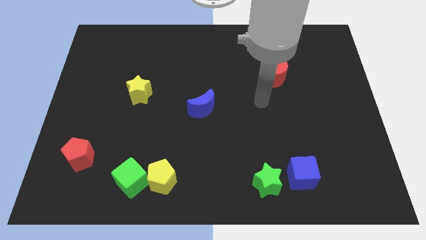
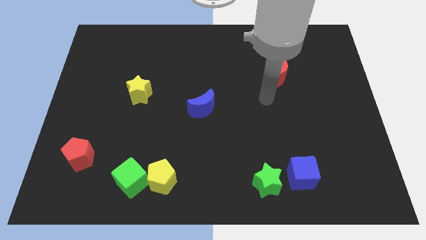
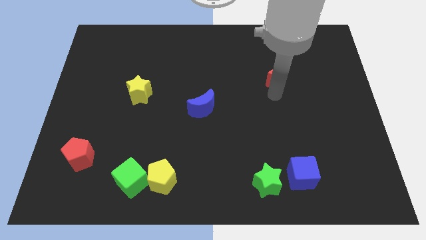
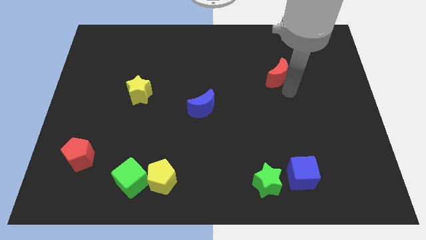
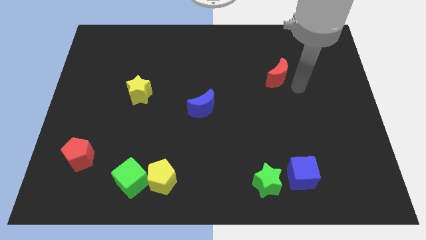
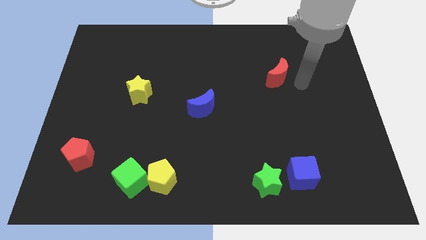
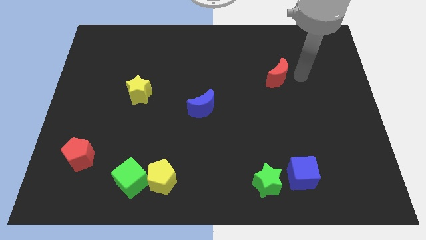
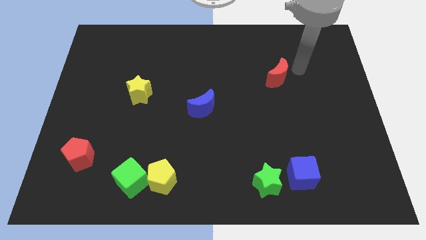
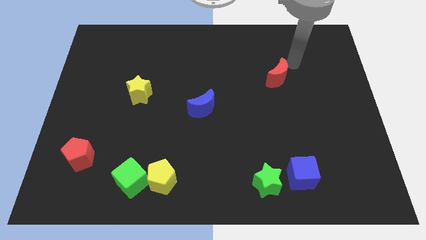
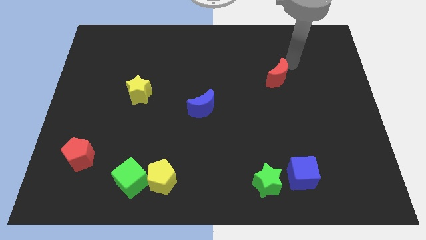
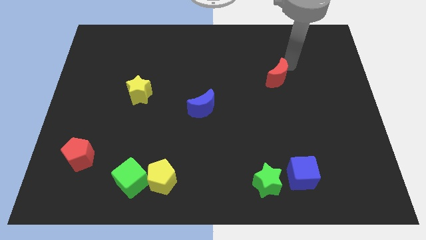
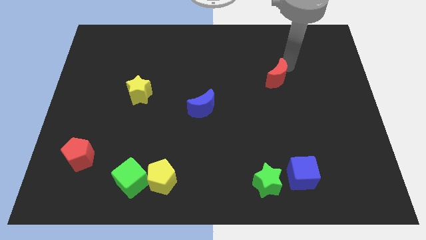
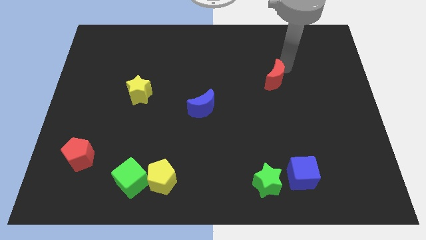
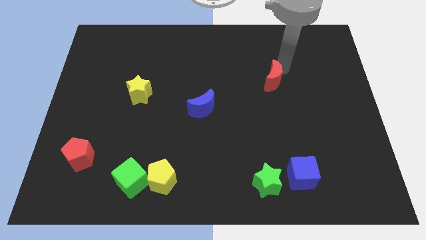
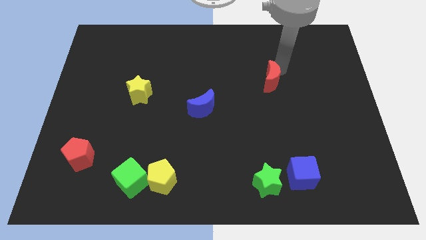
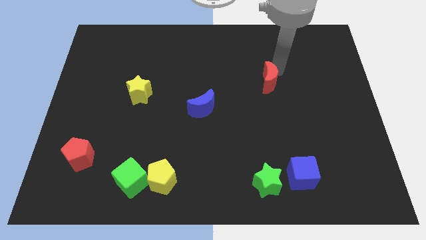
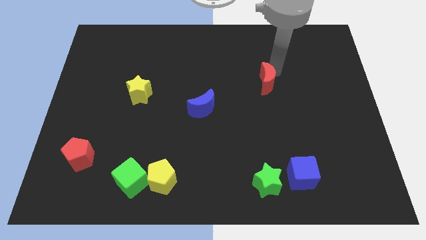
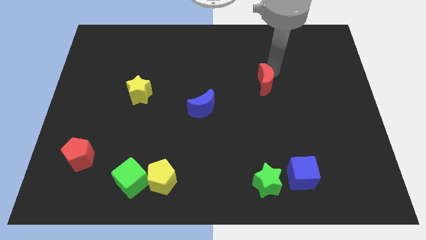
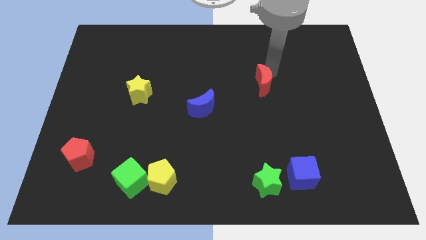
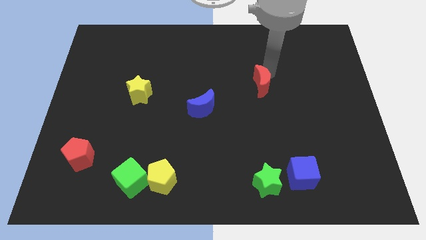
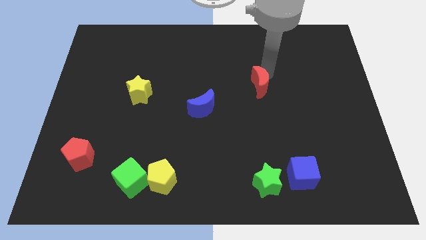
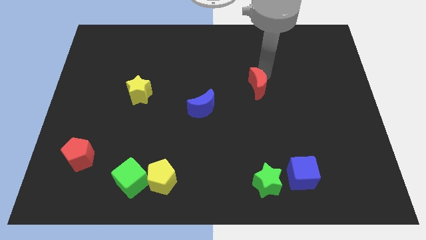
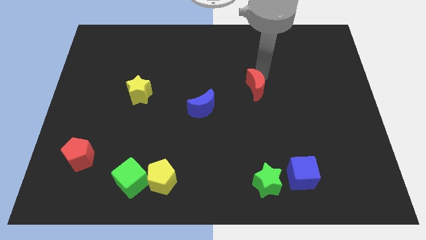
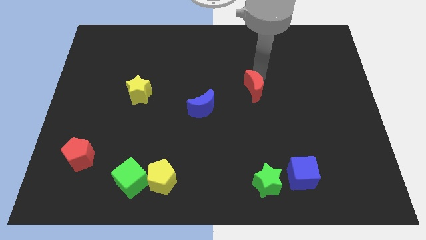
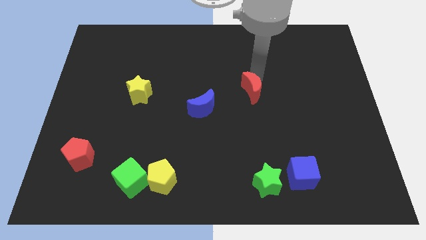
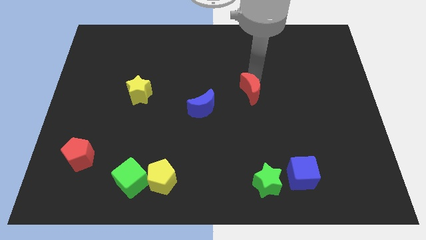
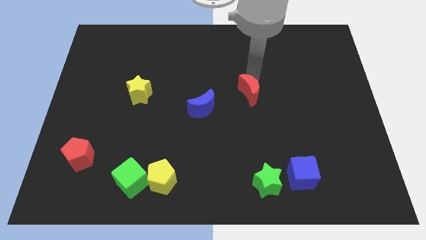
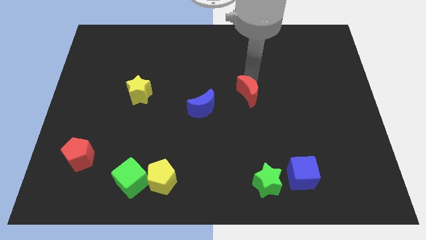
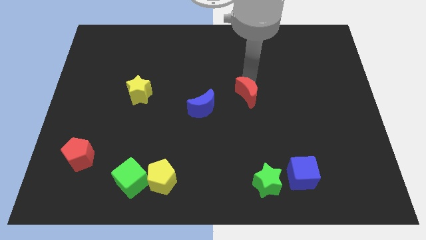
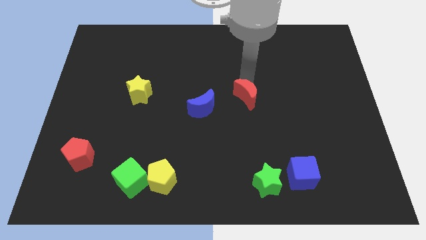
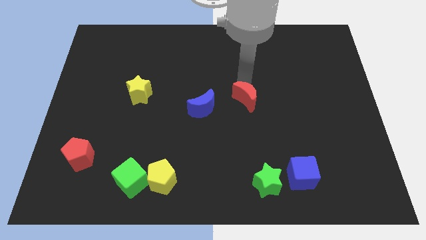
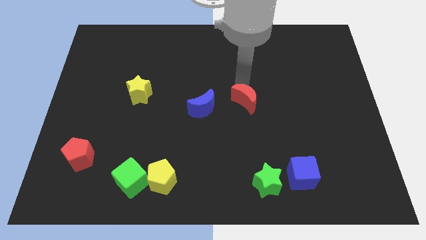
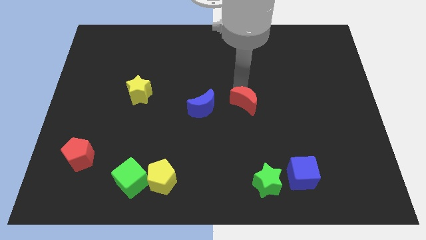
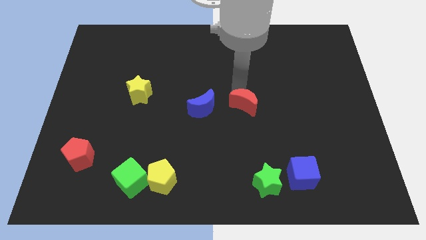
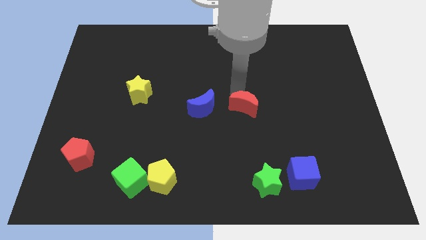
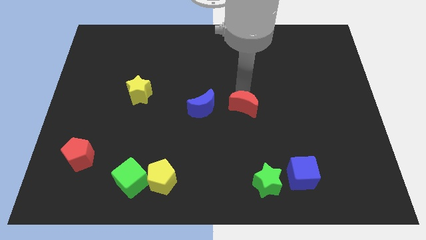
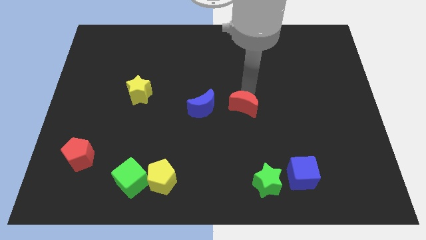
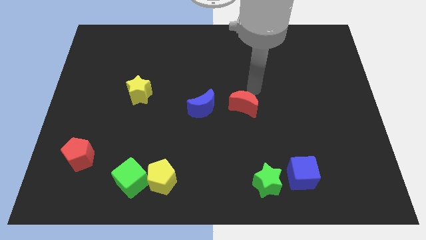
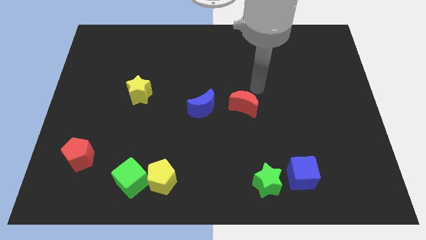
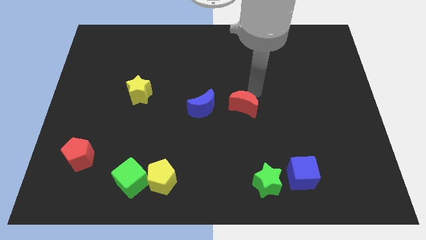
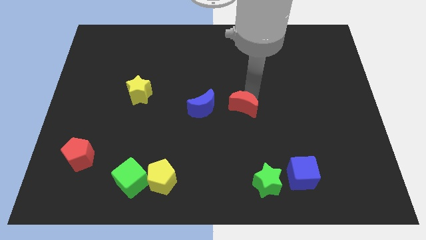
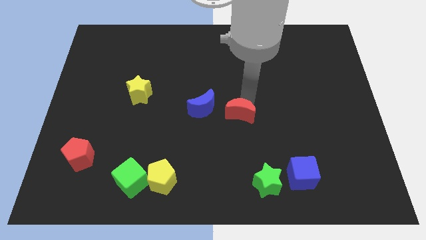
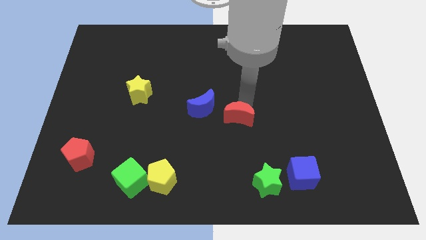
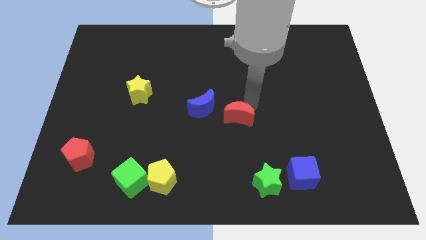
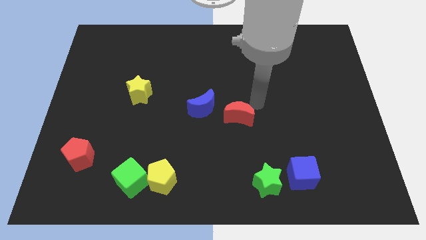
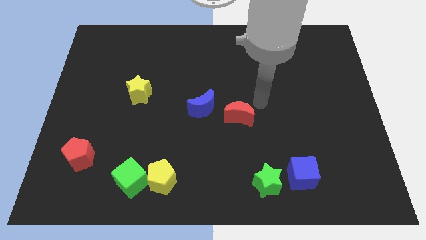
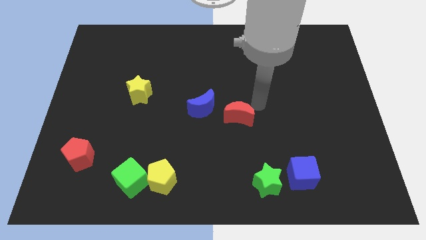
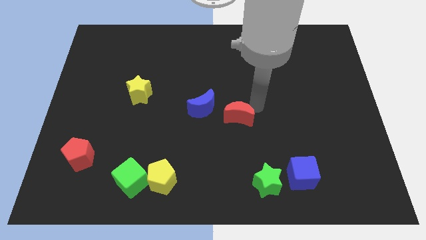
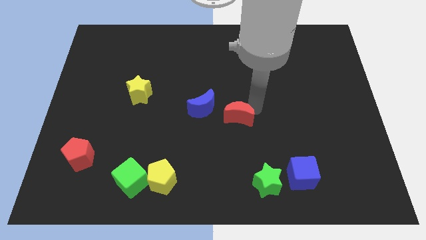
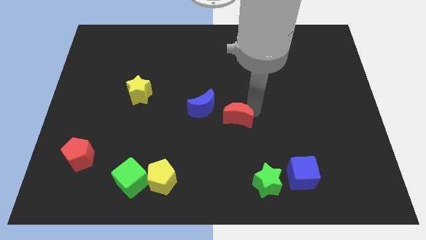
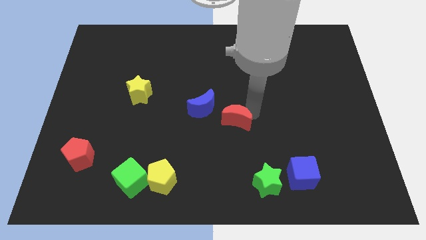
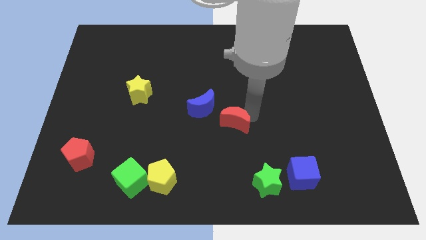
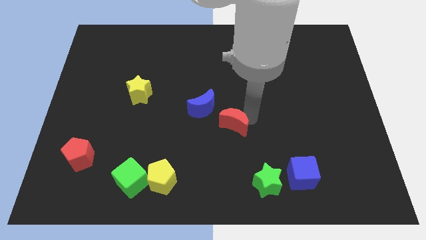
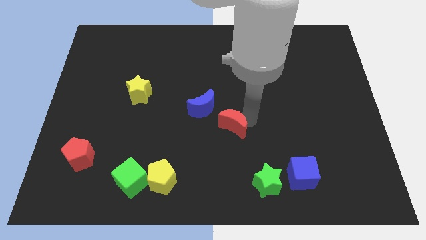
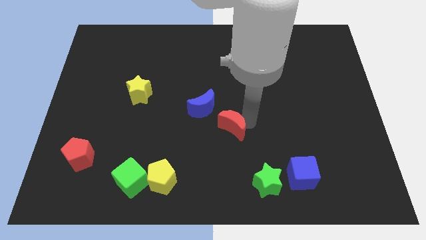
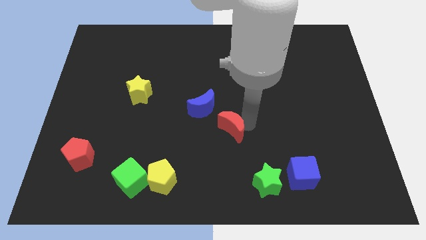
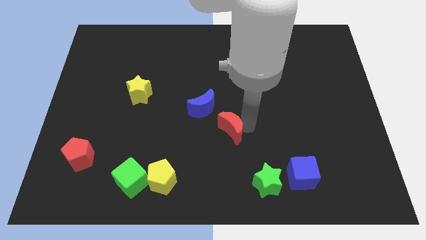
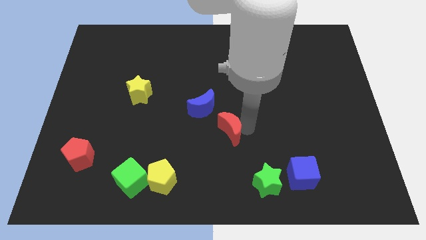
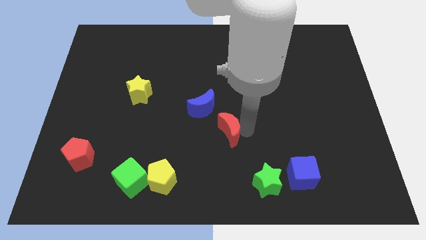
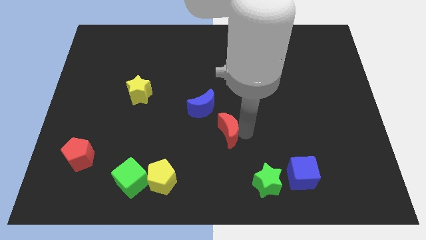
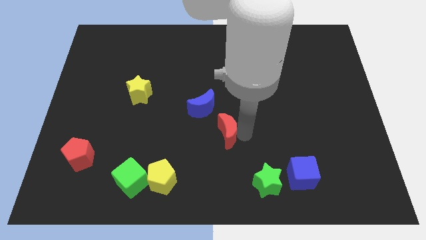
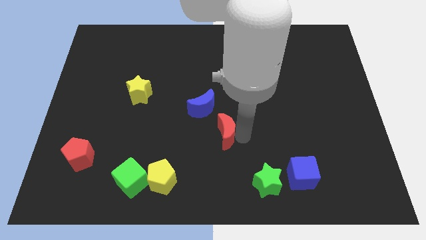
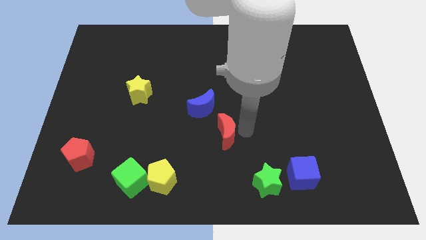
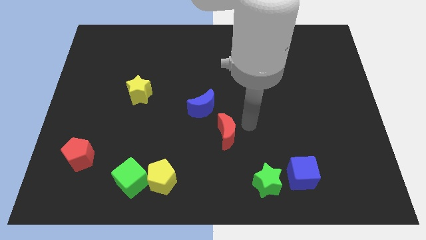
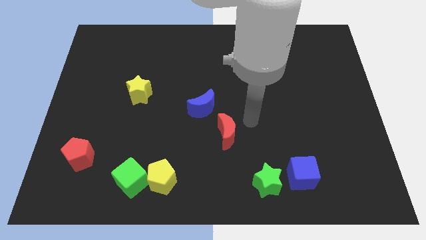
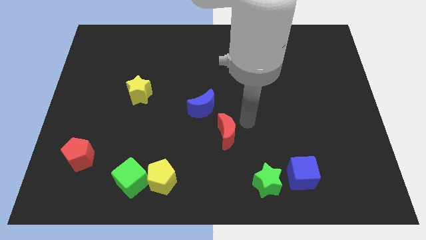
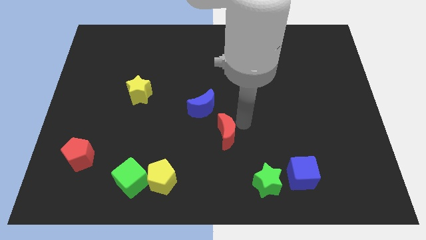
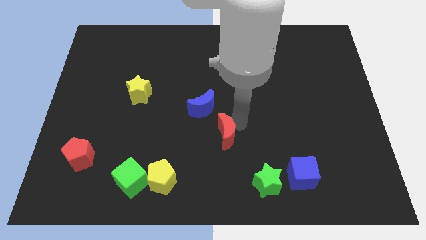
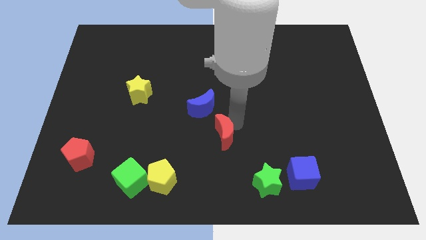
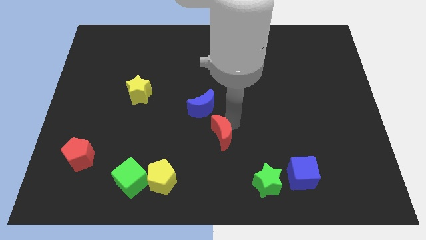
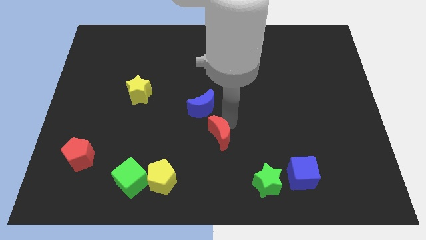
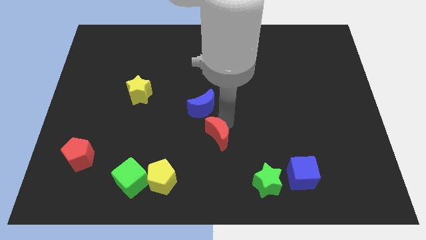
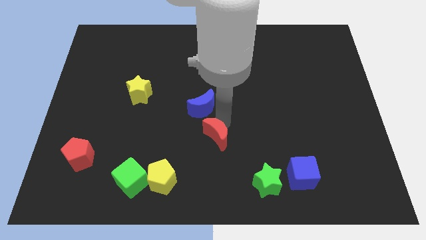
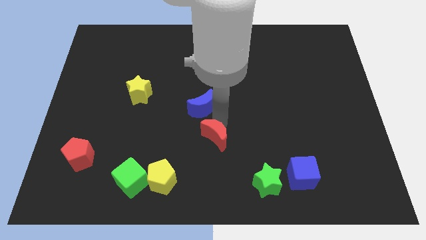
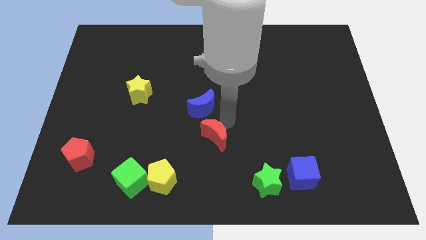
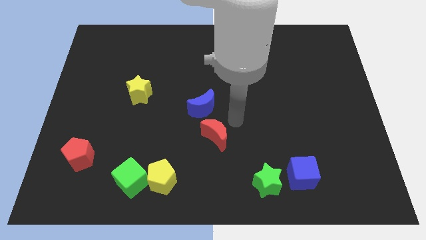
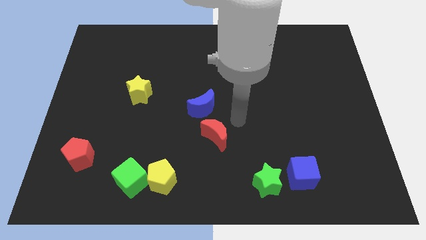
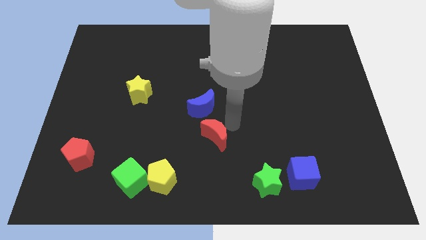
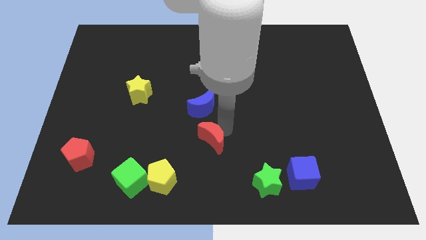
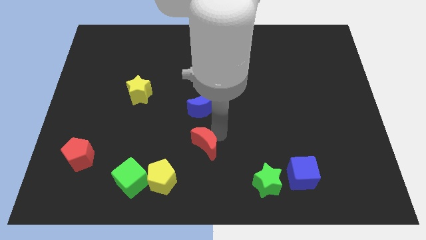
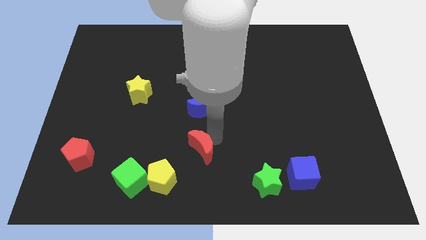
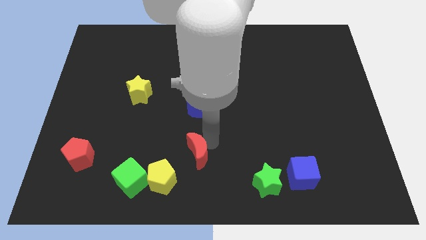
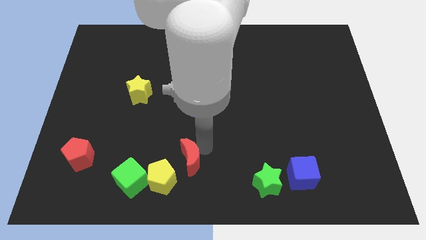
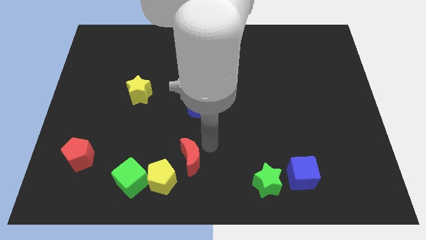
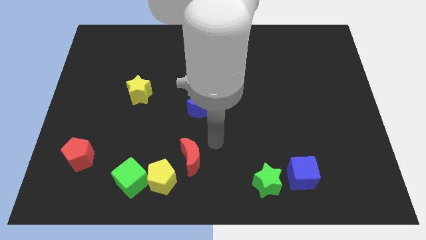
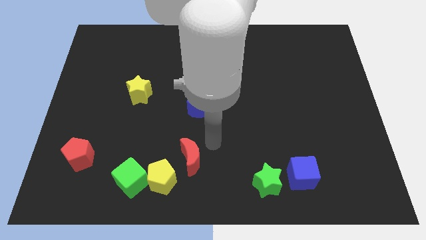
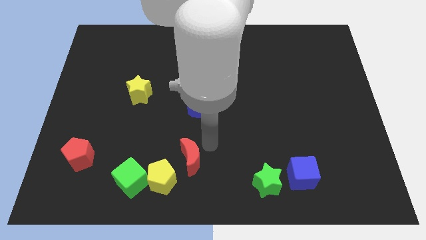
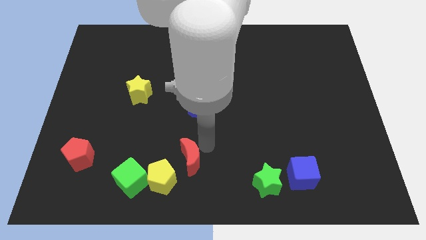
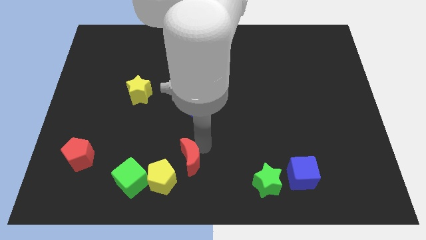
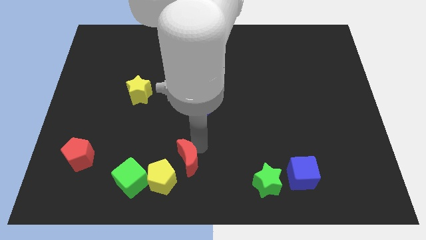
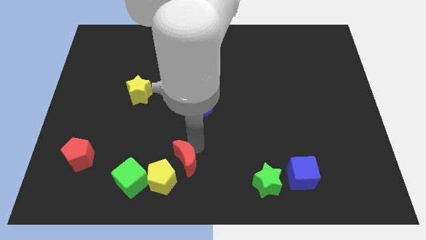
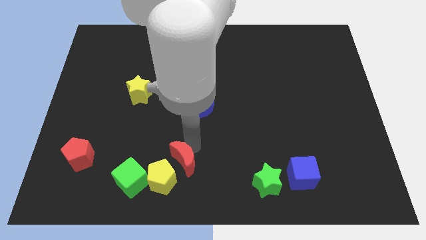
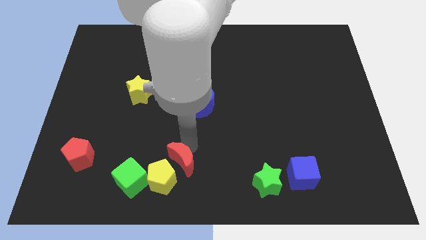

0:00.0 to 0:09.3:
put the red moon to the yellow pentagon
